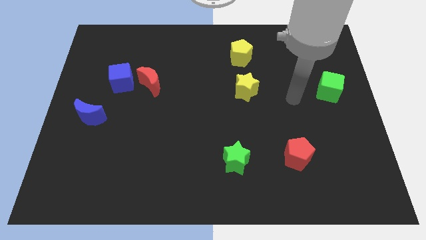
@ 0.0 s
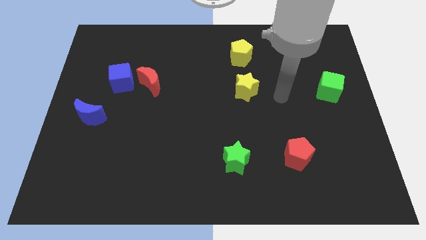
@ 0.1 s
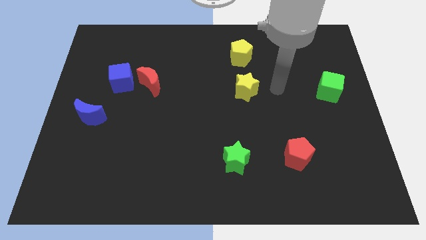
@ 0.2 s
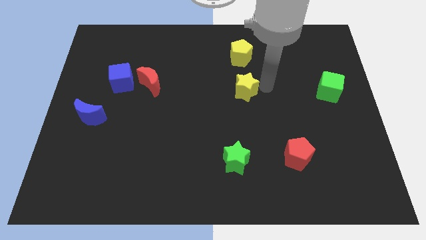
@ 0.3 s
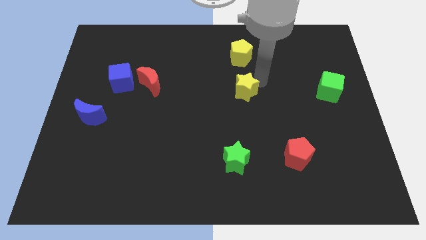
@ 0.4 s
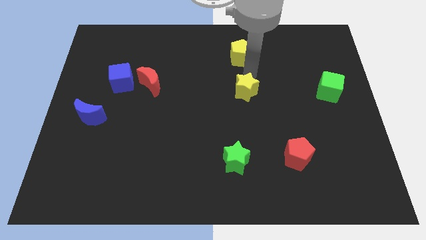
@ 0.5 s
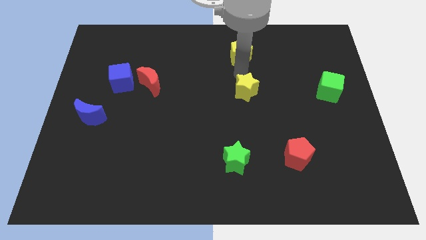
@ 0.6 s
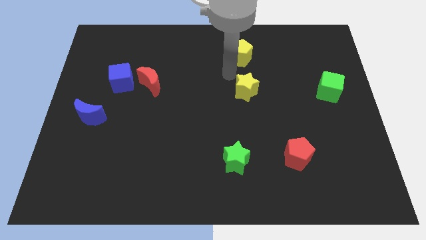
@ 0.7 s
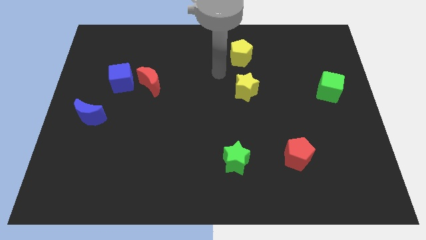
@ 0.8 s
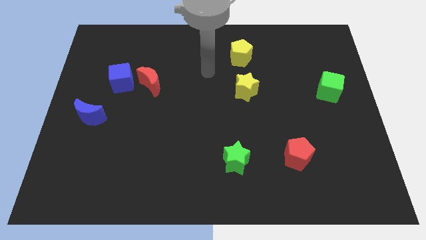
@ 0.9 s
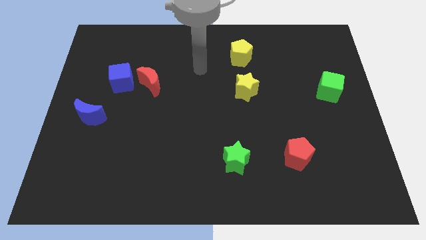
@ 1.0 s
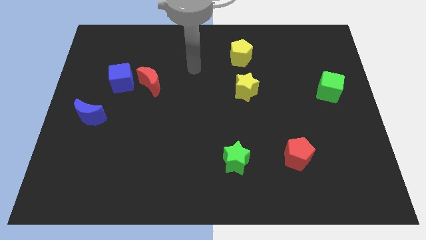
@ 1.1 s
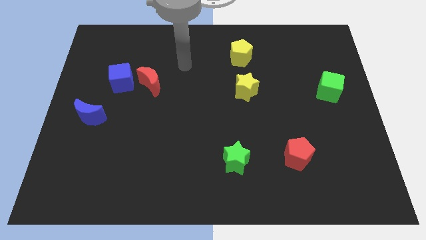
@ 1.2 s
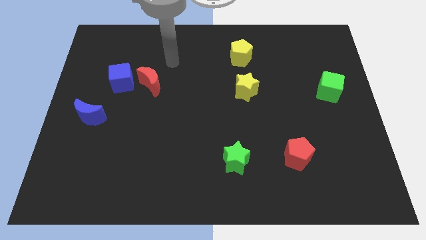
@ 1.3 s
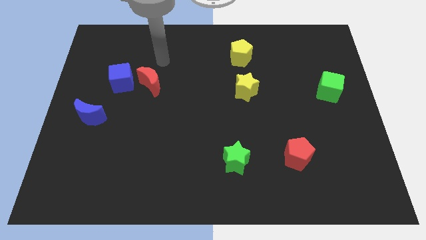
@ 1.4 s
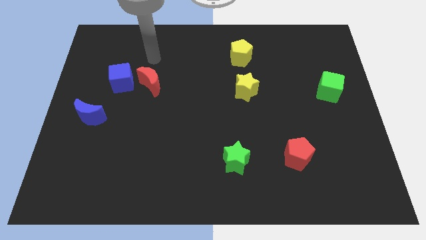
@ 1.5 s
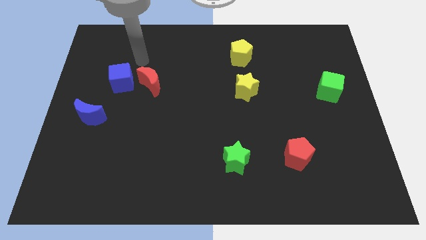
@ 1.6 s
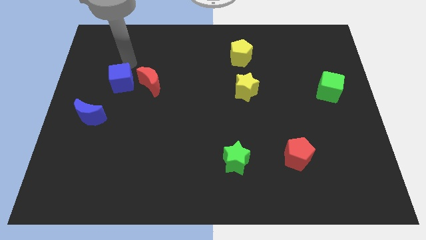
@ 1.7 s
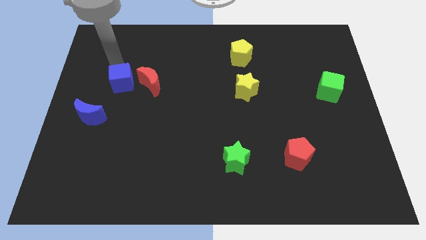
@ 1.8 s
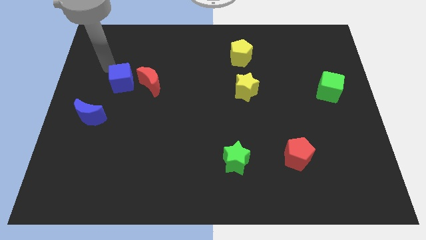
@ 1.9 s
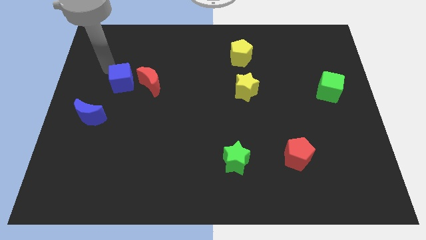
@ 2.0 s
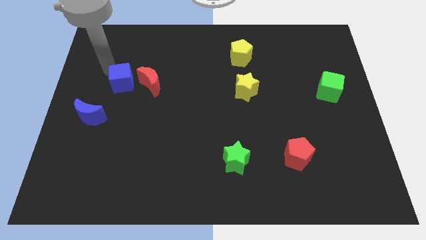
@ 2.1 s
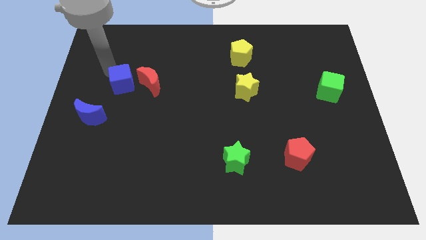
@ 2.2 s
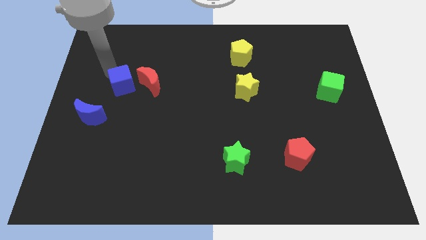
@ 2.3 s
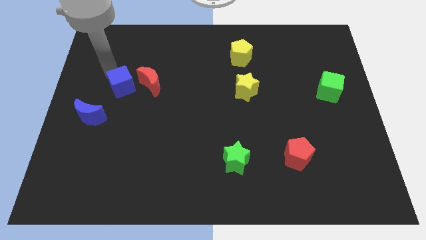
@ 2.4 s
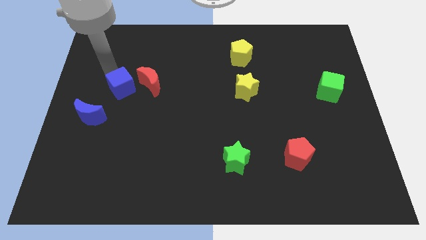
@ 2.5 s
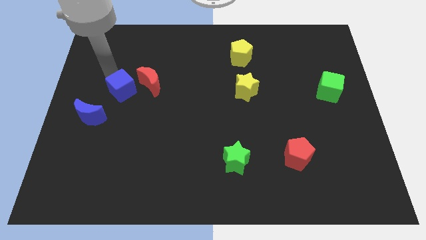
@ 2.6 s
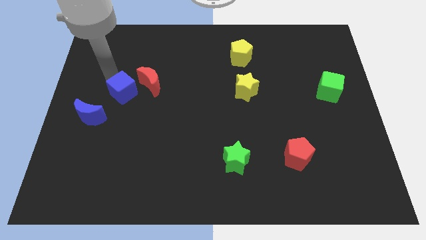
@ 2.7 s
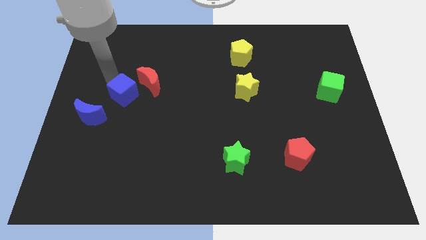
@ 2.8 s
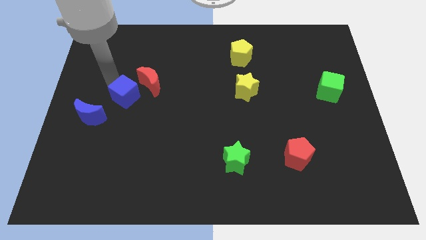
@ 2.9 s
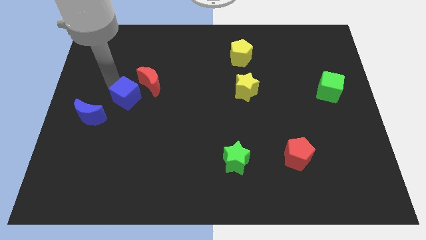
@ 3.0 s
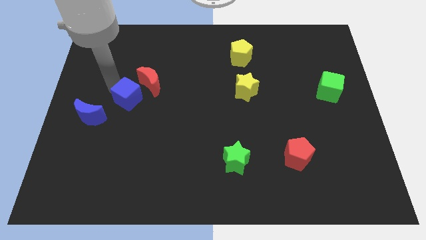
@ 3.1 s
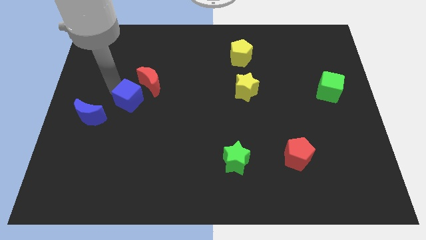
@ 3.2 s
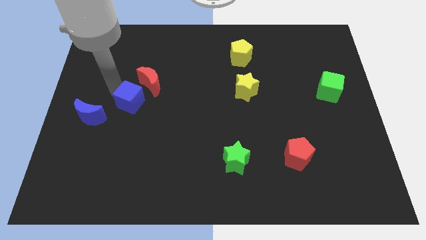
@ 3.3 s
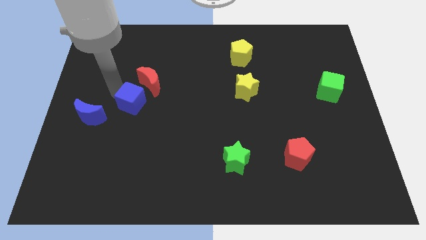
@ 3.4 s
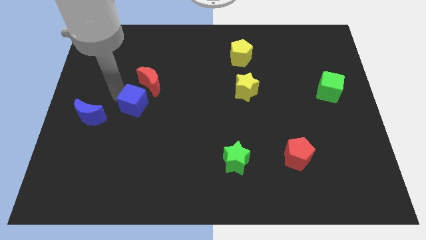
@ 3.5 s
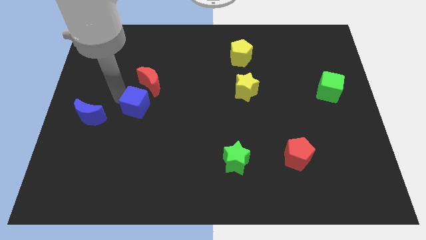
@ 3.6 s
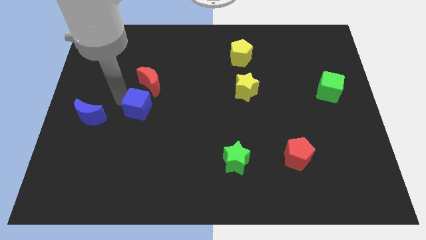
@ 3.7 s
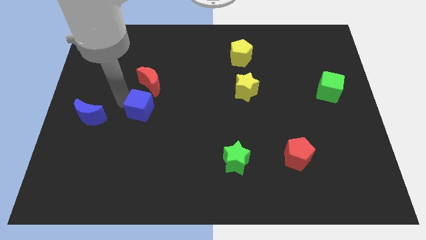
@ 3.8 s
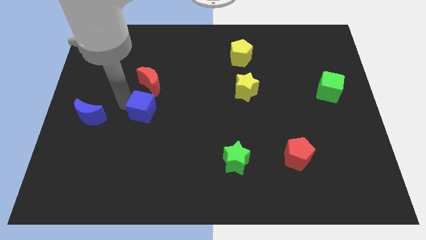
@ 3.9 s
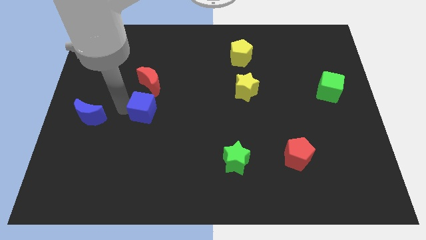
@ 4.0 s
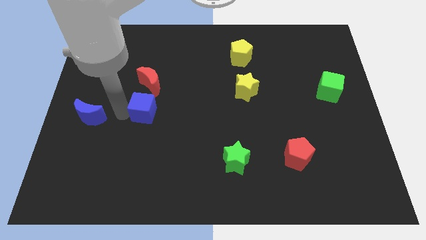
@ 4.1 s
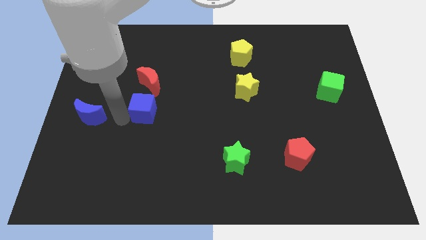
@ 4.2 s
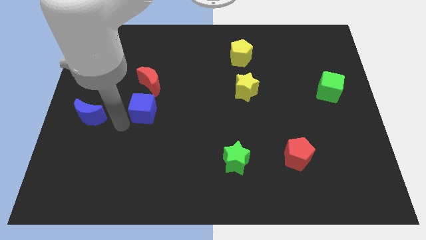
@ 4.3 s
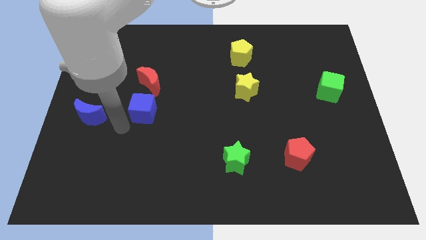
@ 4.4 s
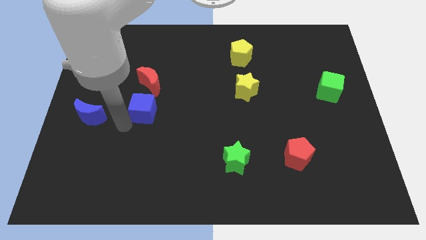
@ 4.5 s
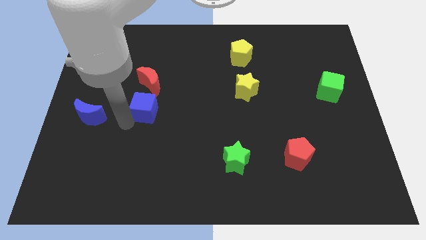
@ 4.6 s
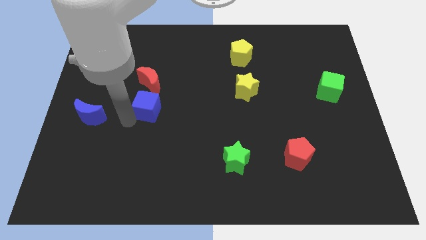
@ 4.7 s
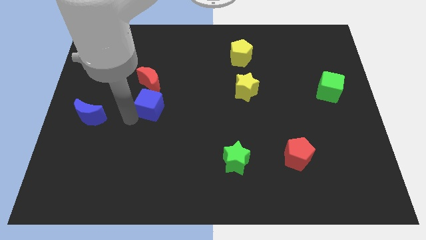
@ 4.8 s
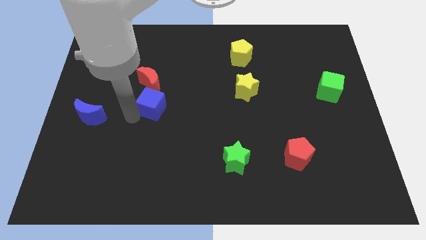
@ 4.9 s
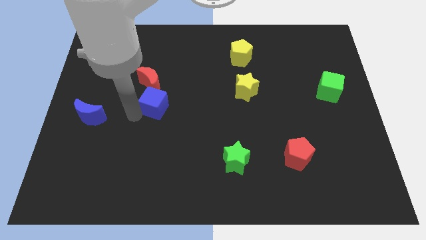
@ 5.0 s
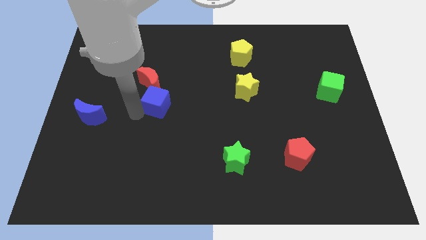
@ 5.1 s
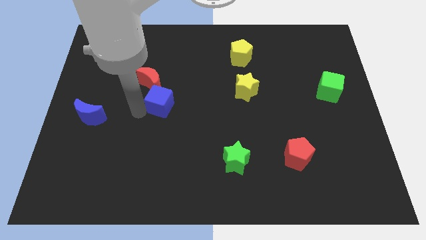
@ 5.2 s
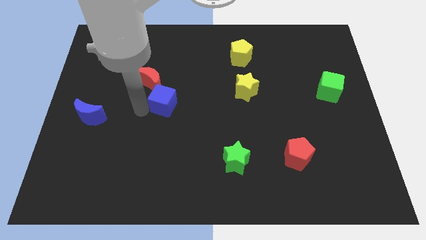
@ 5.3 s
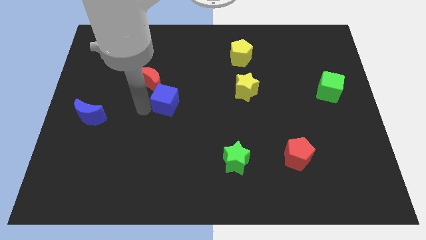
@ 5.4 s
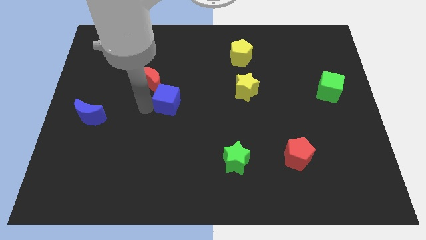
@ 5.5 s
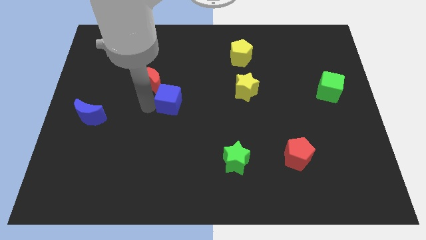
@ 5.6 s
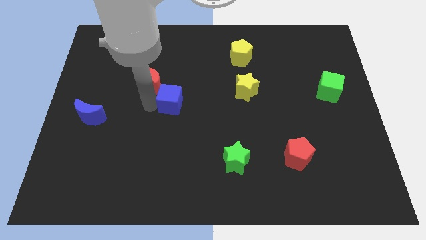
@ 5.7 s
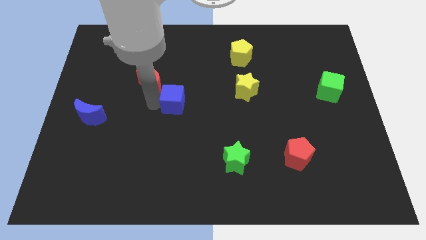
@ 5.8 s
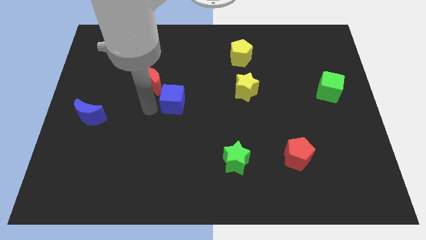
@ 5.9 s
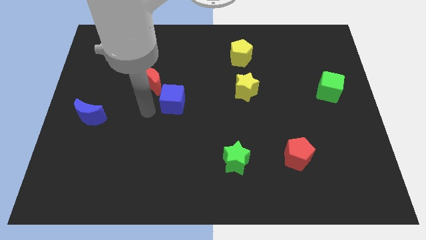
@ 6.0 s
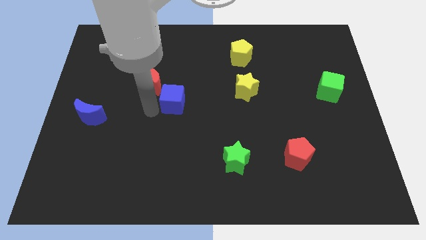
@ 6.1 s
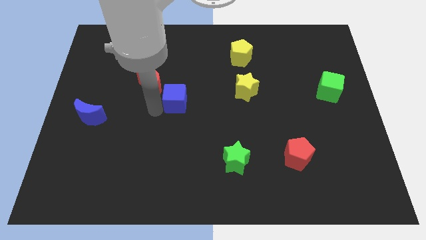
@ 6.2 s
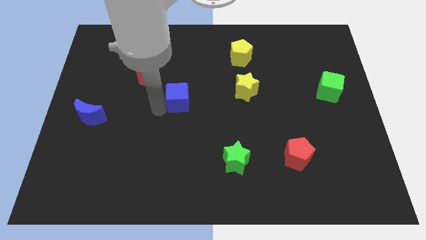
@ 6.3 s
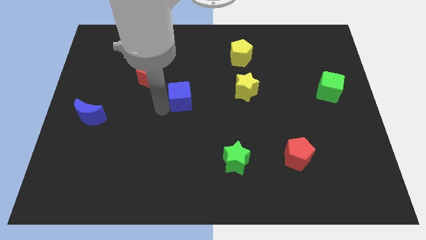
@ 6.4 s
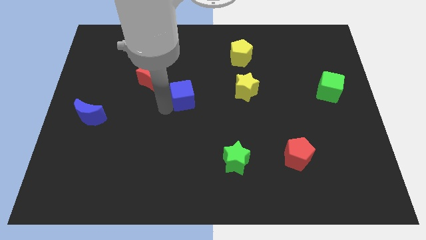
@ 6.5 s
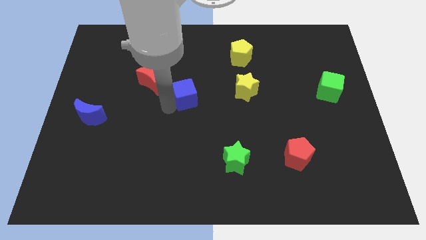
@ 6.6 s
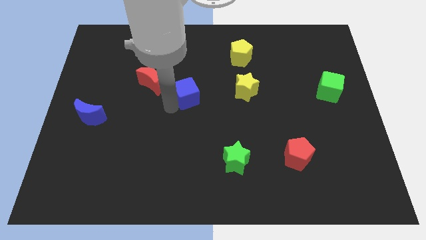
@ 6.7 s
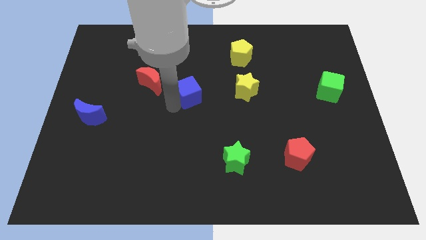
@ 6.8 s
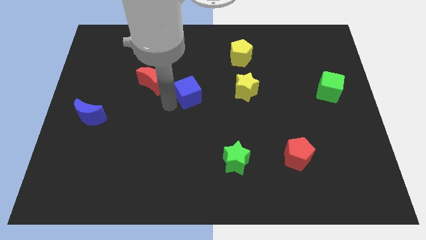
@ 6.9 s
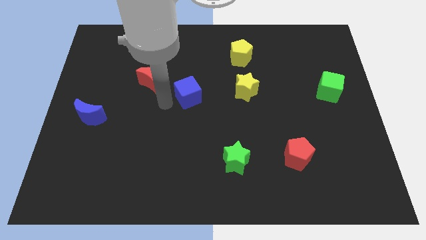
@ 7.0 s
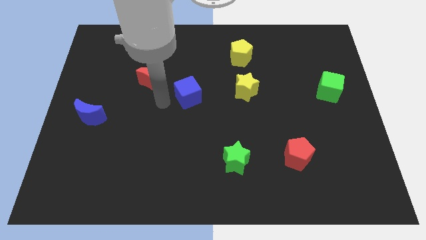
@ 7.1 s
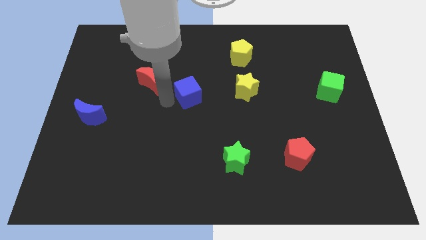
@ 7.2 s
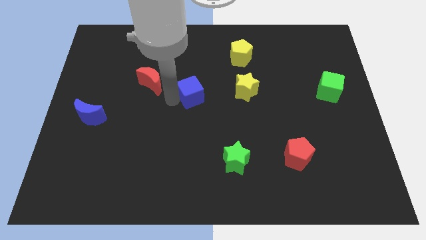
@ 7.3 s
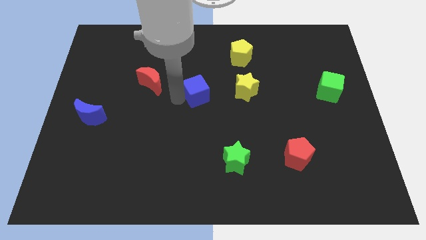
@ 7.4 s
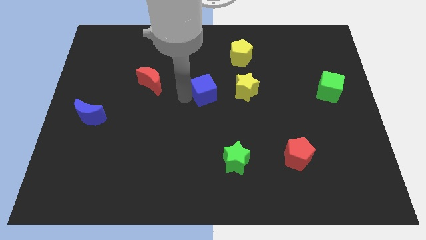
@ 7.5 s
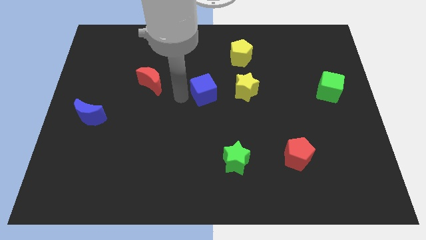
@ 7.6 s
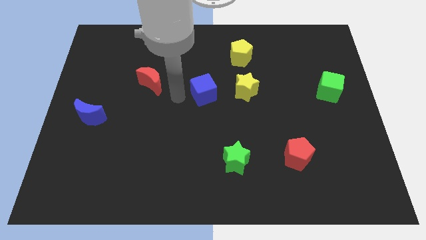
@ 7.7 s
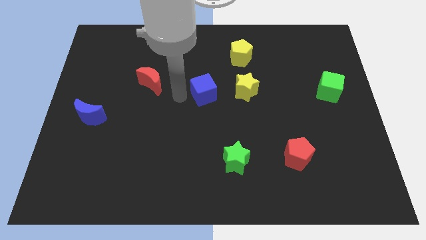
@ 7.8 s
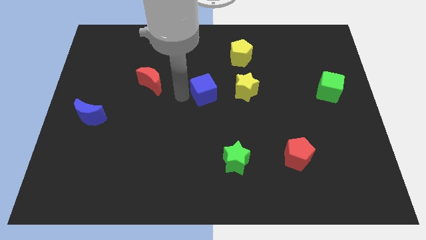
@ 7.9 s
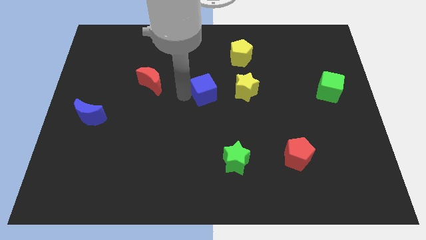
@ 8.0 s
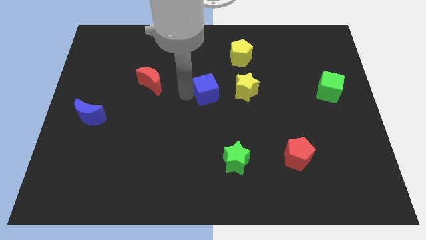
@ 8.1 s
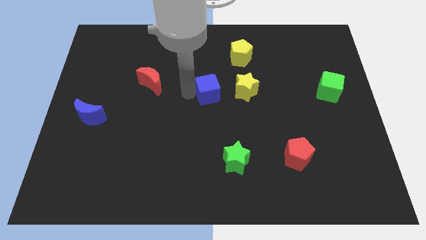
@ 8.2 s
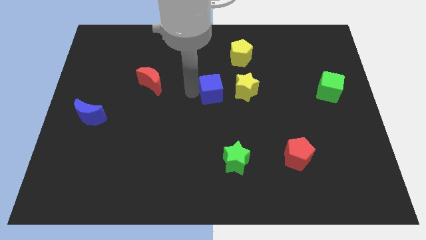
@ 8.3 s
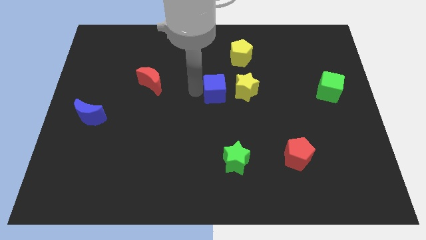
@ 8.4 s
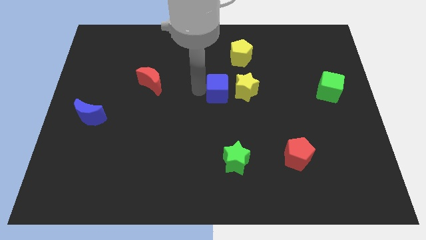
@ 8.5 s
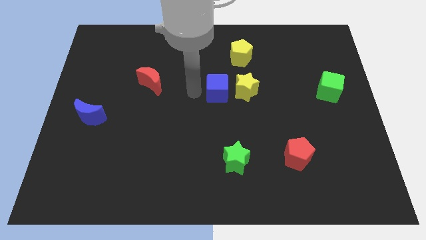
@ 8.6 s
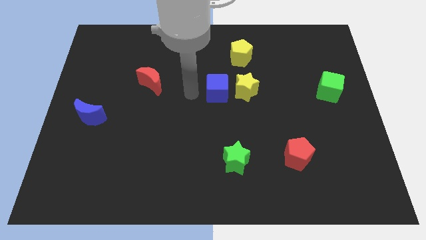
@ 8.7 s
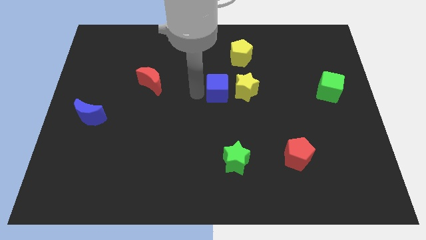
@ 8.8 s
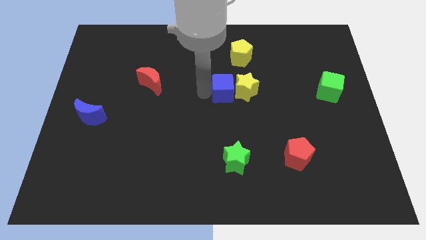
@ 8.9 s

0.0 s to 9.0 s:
push the blue cube close to the yellow star
